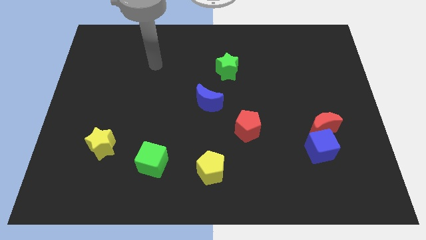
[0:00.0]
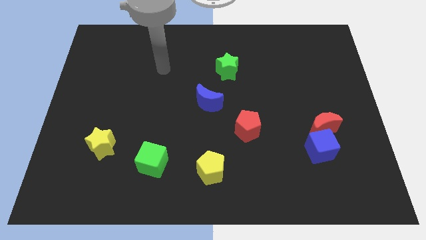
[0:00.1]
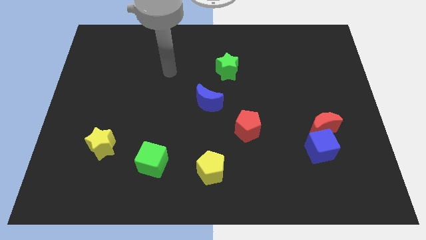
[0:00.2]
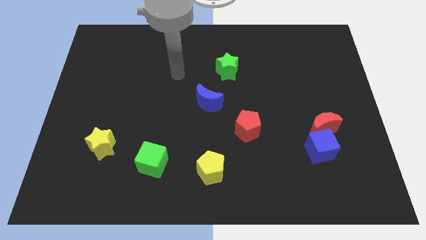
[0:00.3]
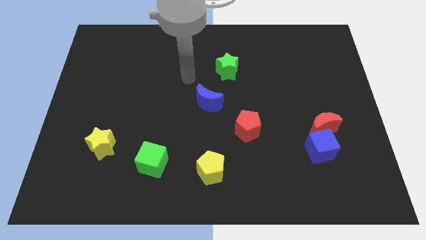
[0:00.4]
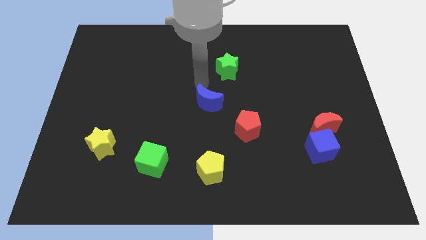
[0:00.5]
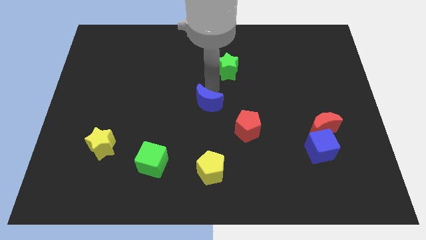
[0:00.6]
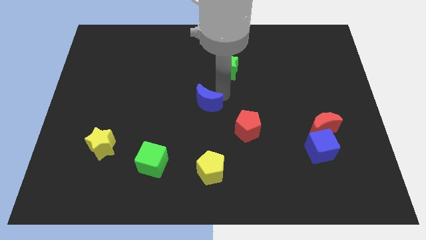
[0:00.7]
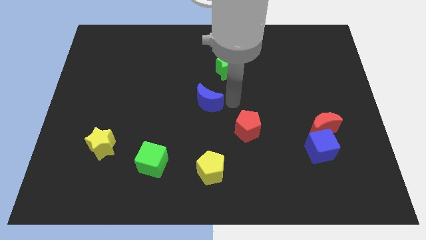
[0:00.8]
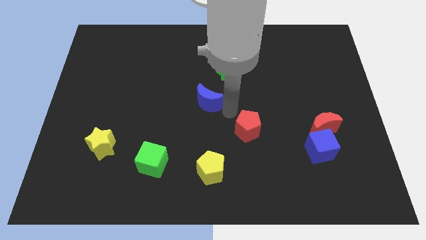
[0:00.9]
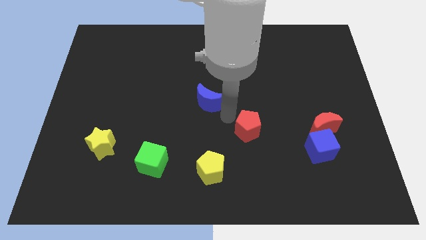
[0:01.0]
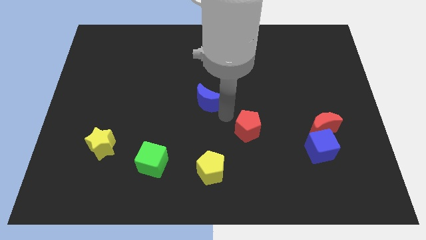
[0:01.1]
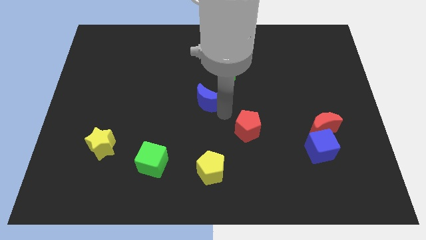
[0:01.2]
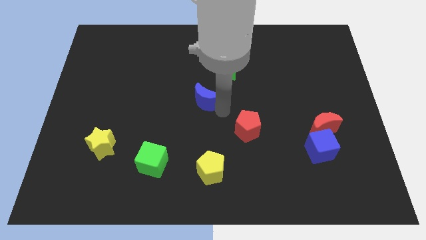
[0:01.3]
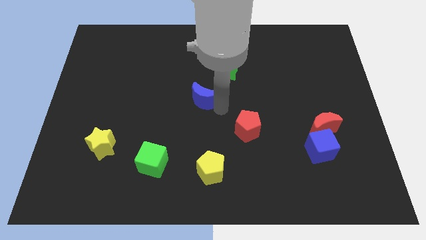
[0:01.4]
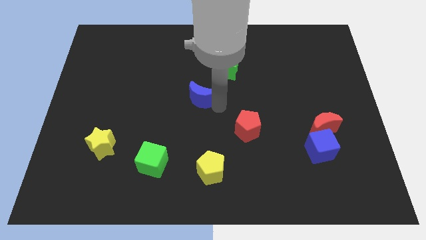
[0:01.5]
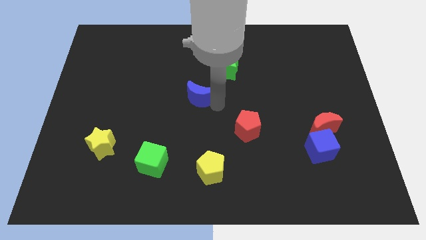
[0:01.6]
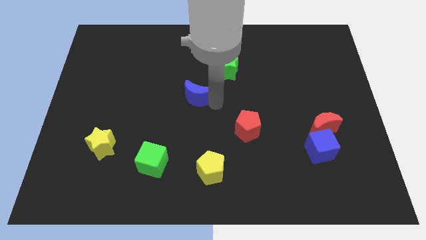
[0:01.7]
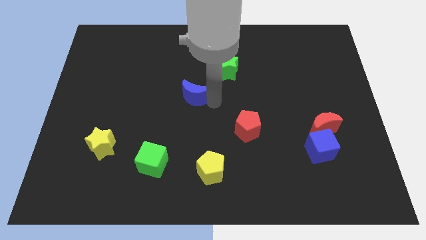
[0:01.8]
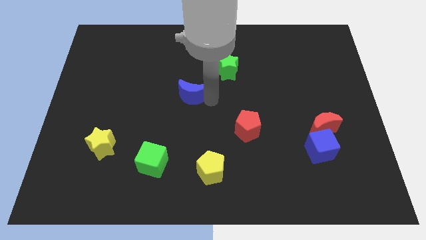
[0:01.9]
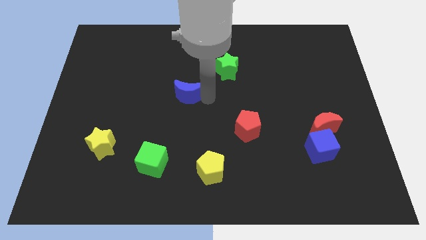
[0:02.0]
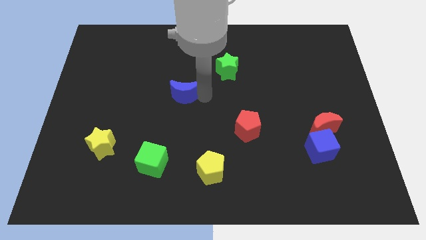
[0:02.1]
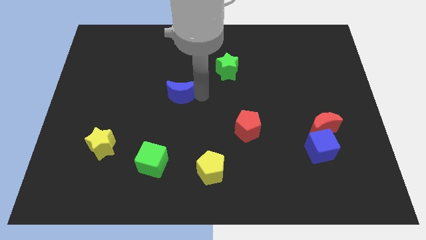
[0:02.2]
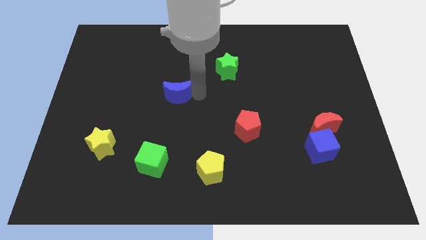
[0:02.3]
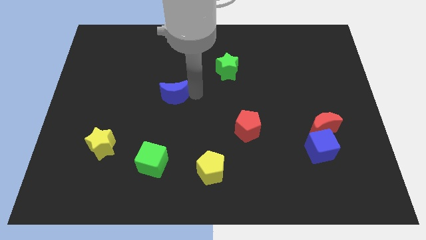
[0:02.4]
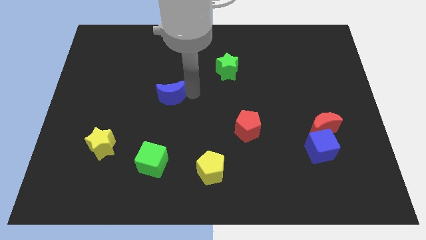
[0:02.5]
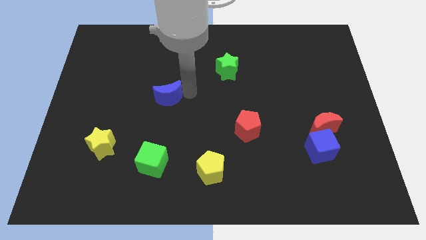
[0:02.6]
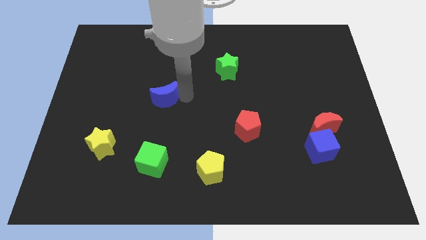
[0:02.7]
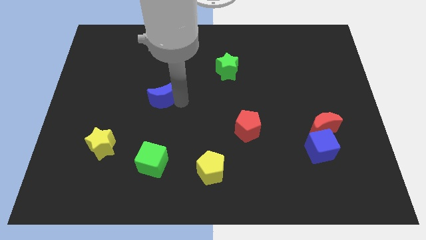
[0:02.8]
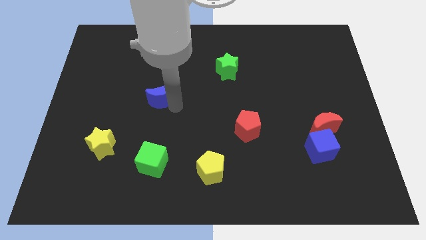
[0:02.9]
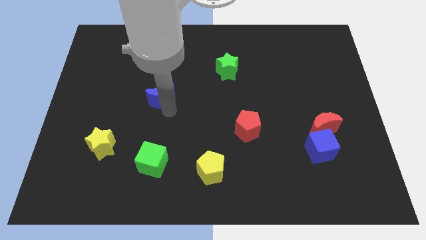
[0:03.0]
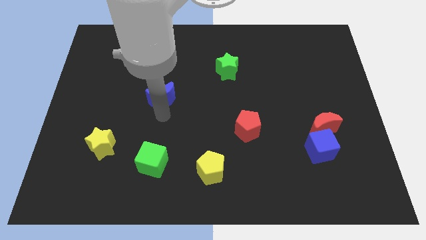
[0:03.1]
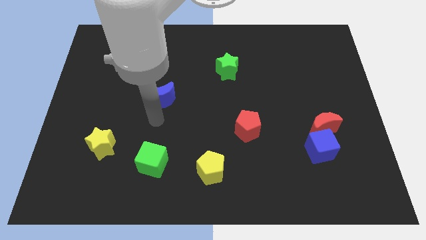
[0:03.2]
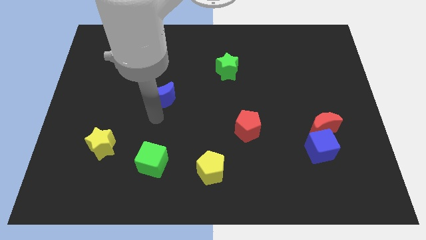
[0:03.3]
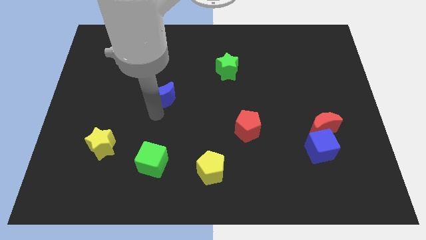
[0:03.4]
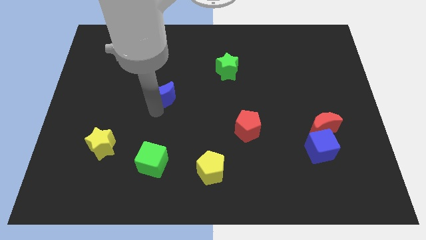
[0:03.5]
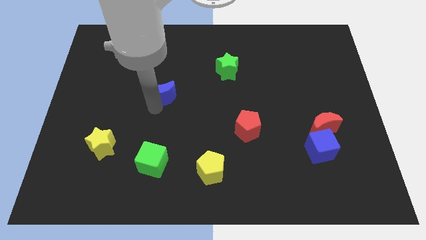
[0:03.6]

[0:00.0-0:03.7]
slightly move the blue moon up and then to the left

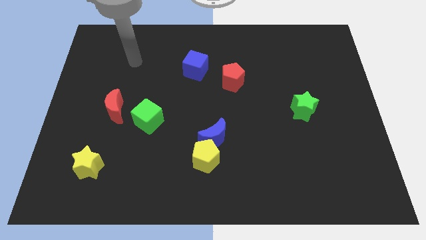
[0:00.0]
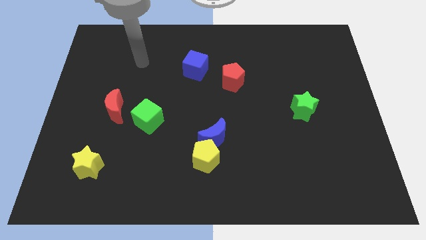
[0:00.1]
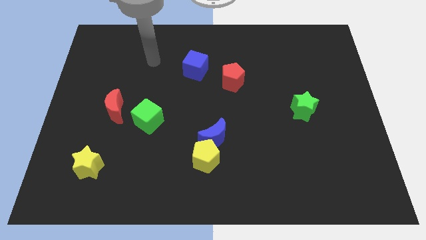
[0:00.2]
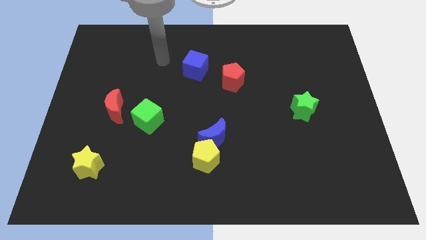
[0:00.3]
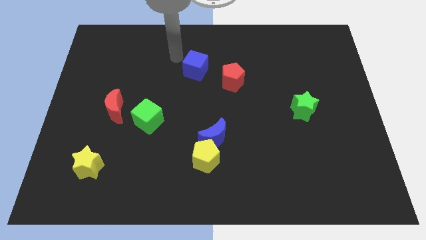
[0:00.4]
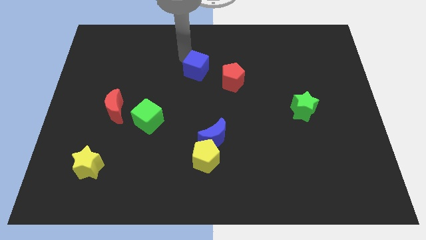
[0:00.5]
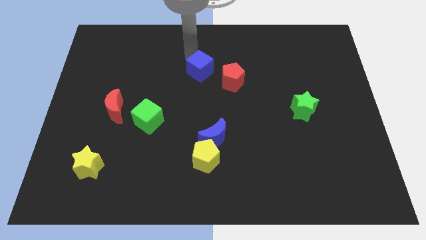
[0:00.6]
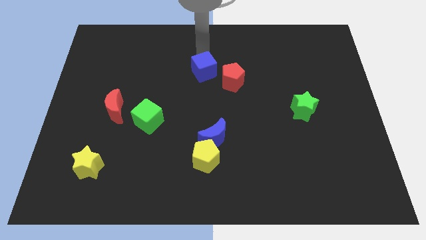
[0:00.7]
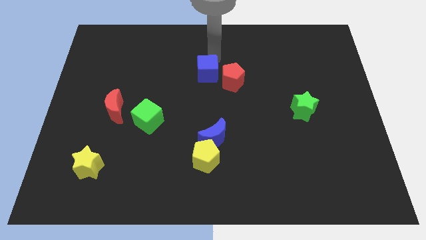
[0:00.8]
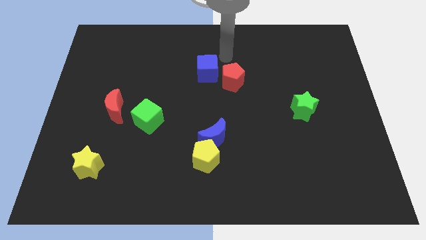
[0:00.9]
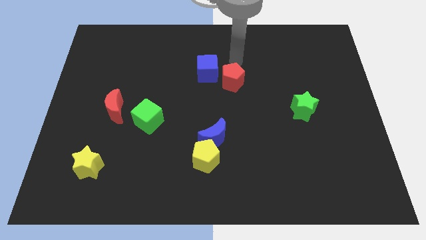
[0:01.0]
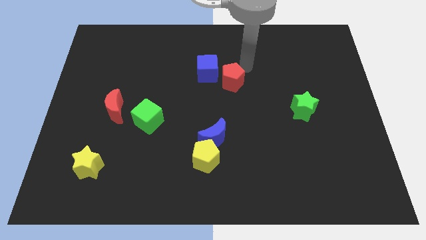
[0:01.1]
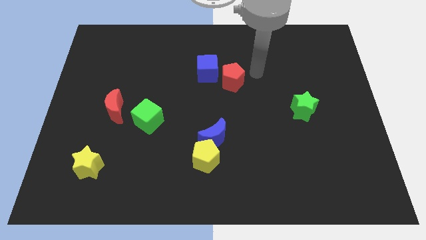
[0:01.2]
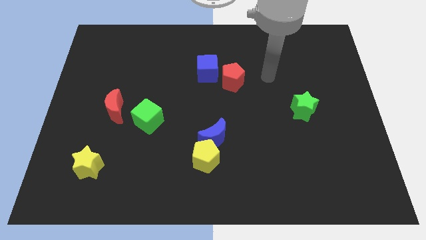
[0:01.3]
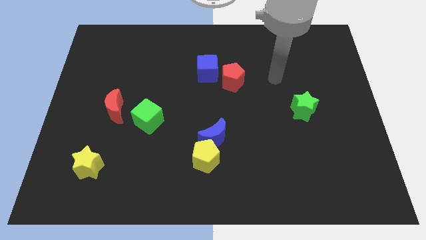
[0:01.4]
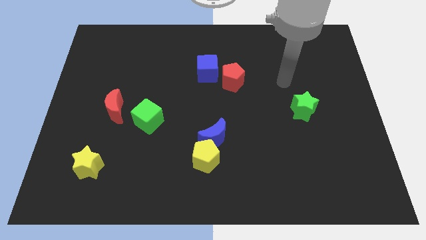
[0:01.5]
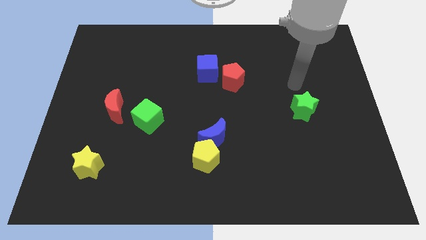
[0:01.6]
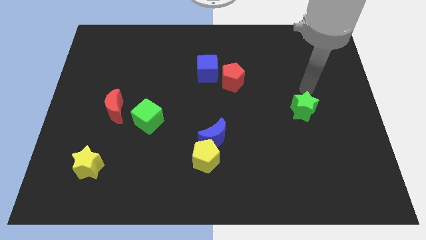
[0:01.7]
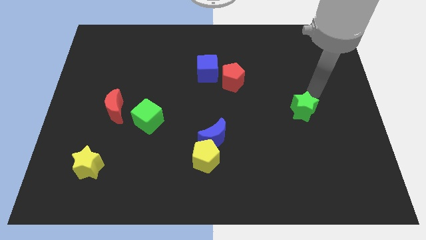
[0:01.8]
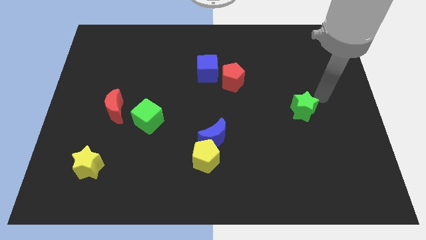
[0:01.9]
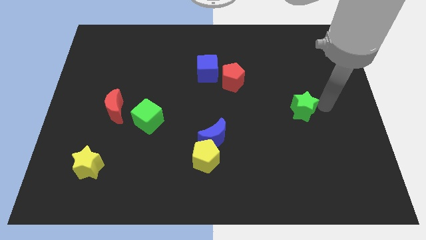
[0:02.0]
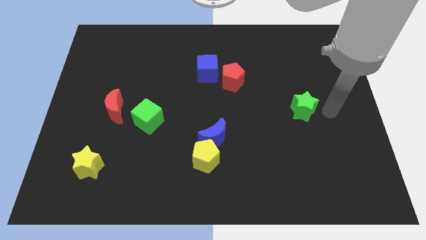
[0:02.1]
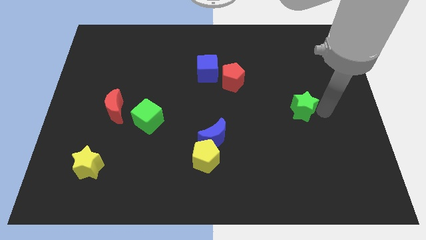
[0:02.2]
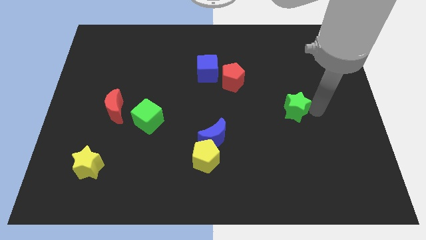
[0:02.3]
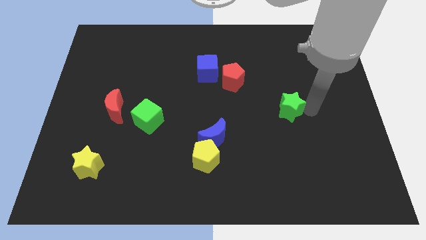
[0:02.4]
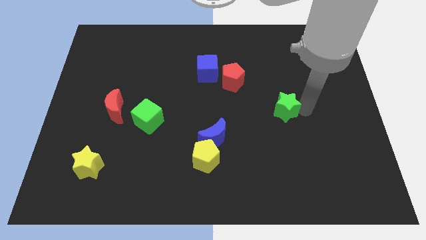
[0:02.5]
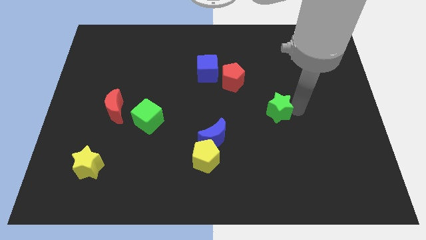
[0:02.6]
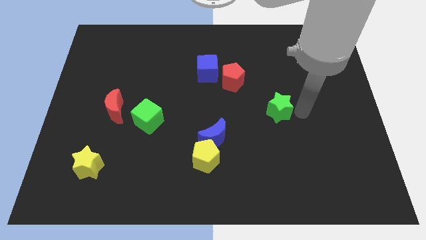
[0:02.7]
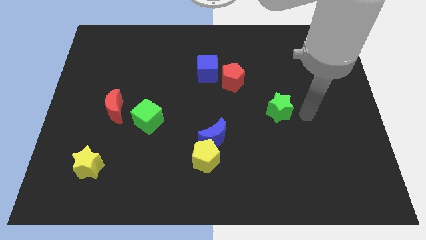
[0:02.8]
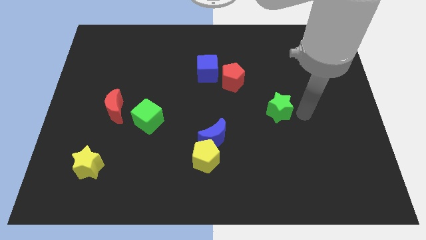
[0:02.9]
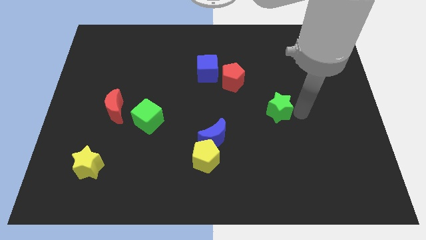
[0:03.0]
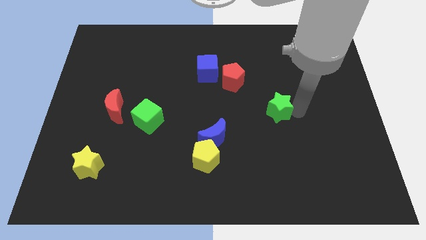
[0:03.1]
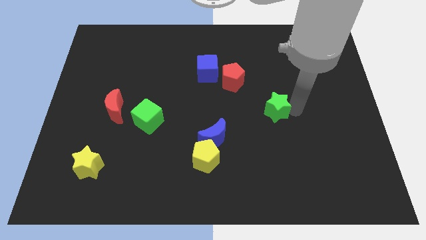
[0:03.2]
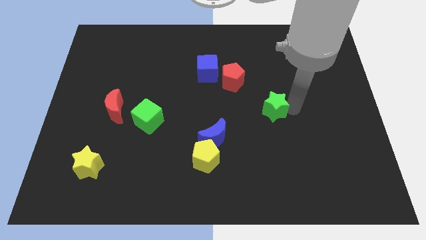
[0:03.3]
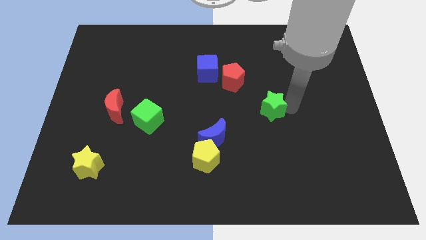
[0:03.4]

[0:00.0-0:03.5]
slightly slide the green star left

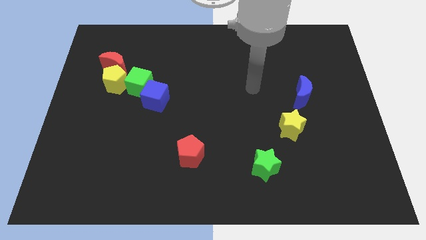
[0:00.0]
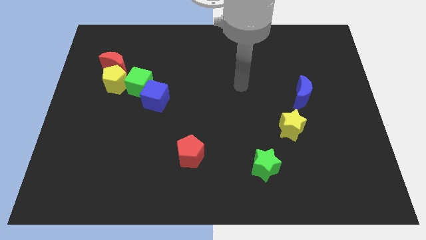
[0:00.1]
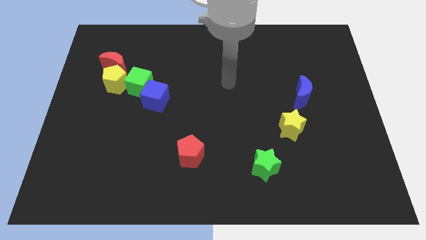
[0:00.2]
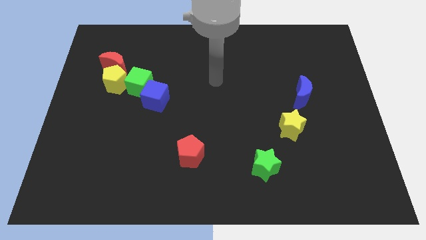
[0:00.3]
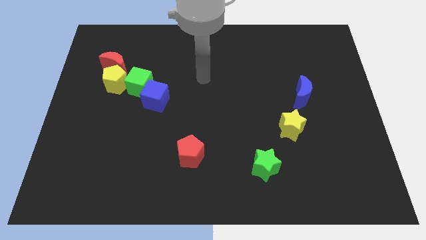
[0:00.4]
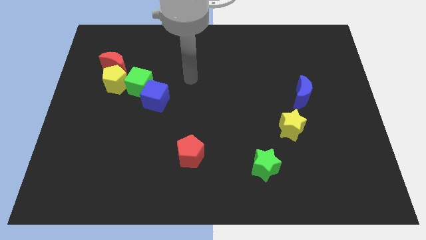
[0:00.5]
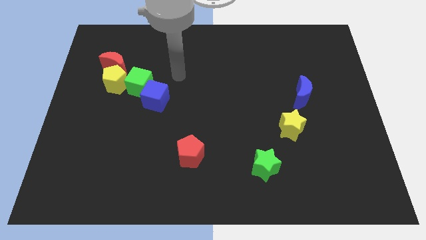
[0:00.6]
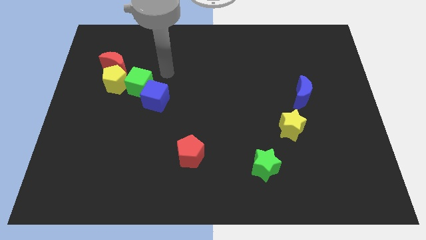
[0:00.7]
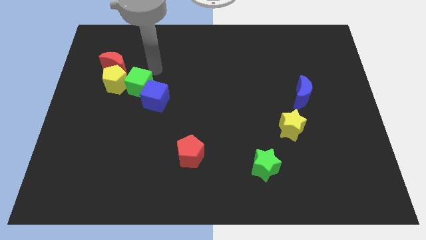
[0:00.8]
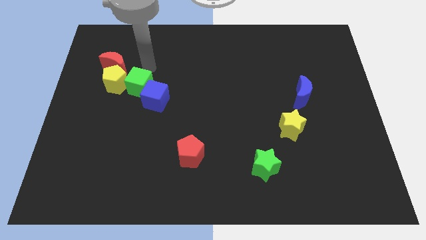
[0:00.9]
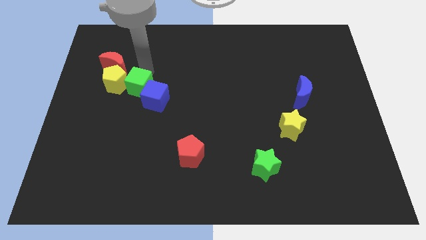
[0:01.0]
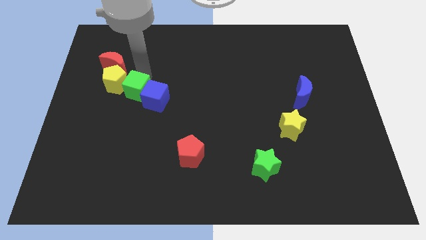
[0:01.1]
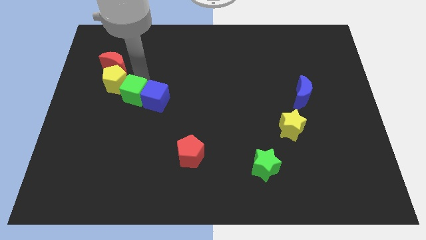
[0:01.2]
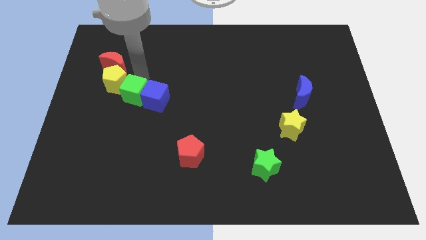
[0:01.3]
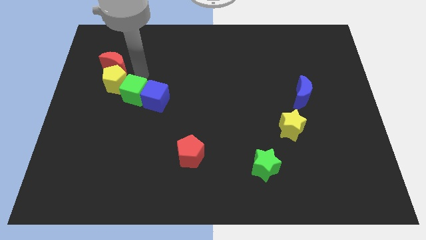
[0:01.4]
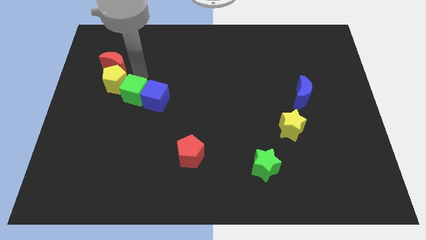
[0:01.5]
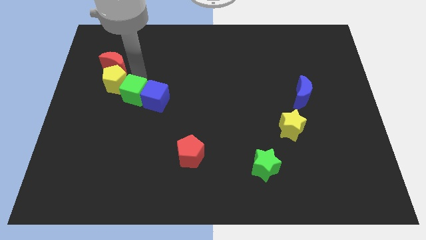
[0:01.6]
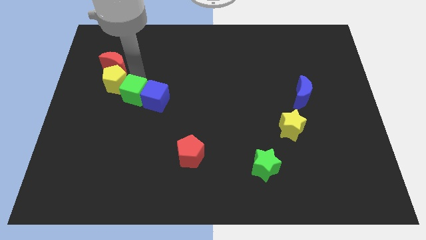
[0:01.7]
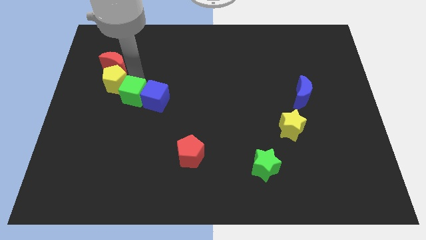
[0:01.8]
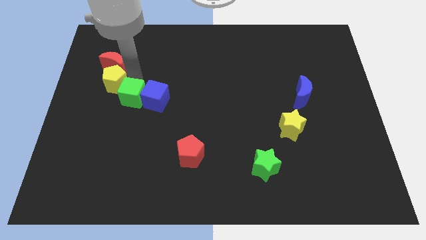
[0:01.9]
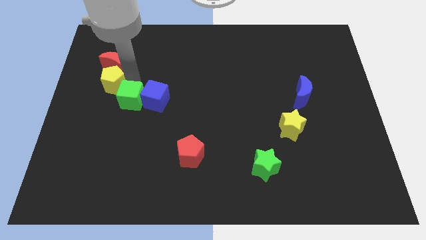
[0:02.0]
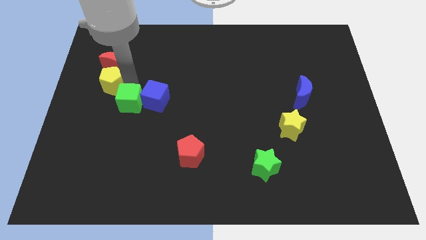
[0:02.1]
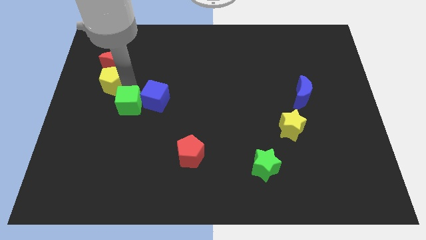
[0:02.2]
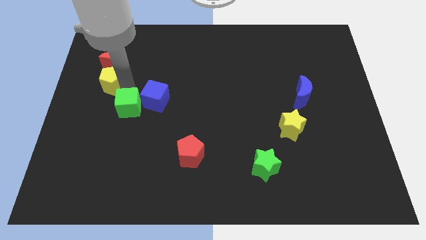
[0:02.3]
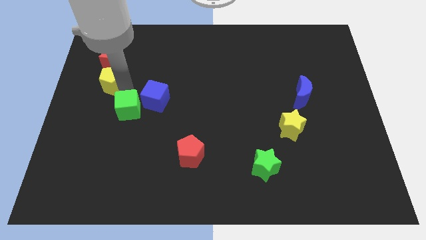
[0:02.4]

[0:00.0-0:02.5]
push the green cube downwards slightly
